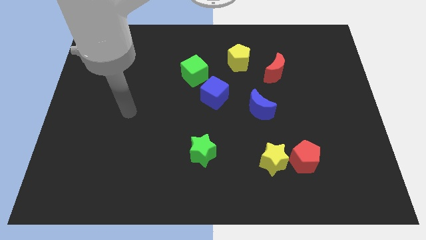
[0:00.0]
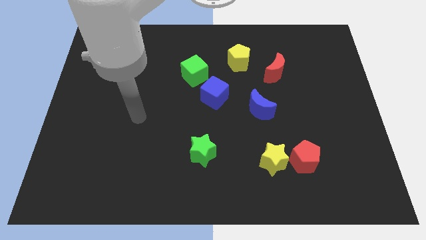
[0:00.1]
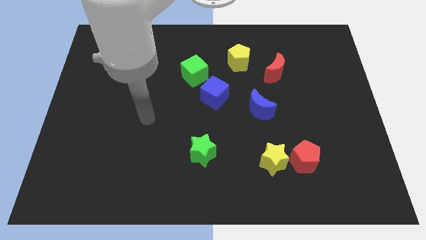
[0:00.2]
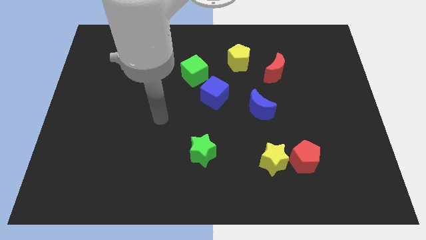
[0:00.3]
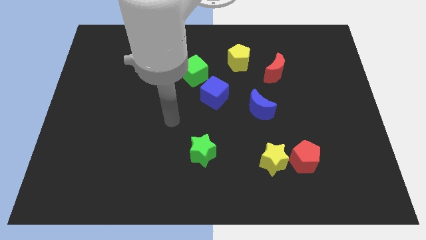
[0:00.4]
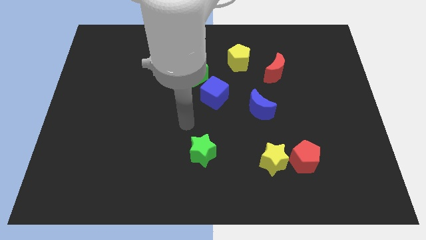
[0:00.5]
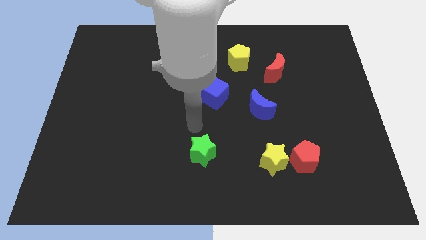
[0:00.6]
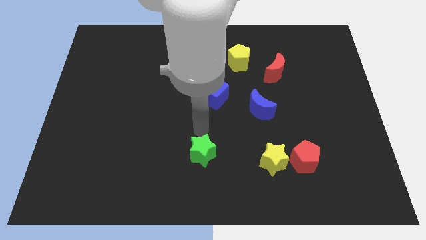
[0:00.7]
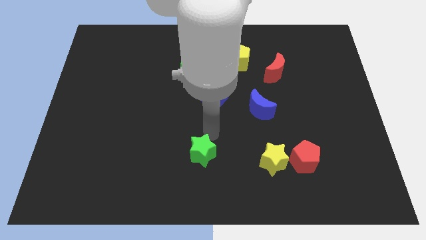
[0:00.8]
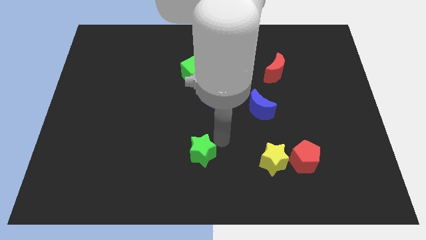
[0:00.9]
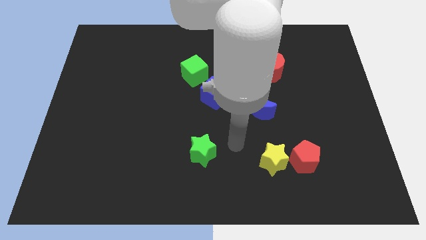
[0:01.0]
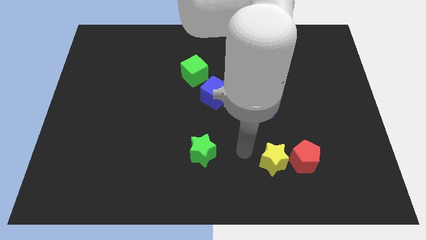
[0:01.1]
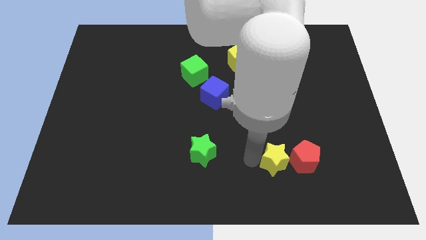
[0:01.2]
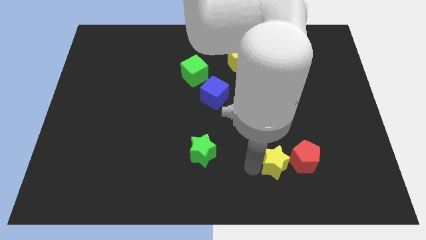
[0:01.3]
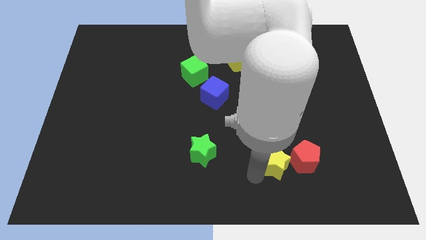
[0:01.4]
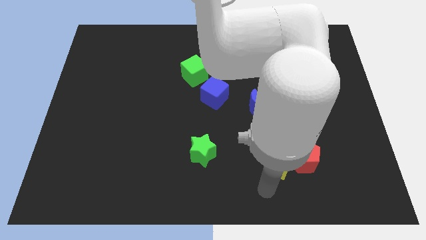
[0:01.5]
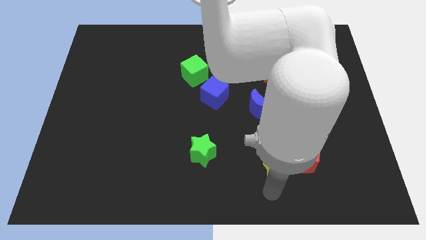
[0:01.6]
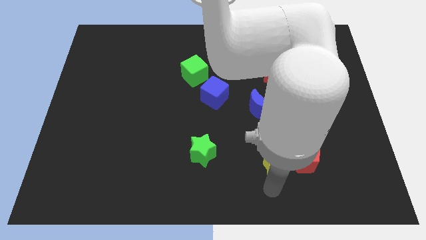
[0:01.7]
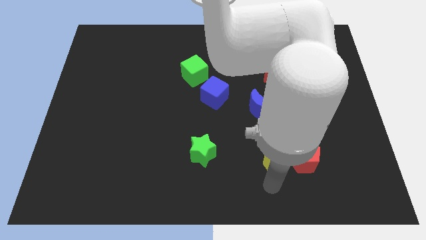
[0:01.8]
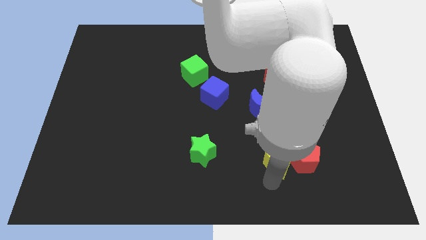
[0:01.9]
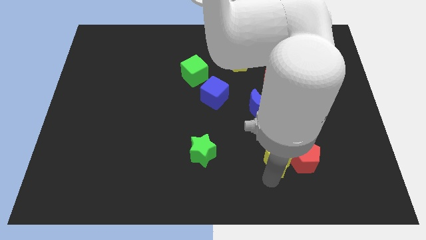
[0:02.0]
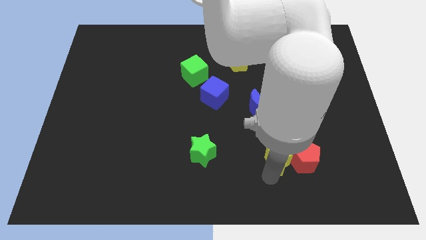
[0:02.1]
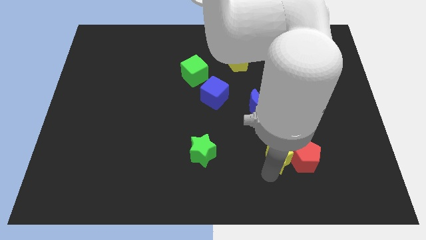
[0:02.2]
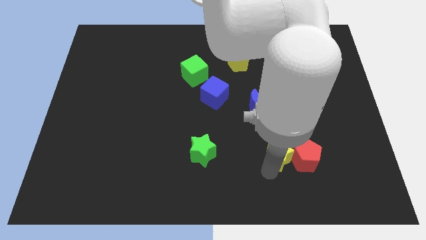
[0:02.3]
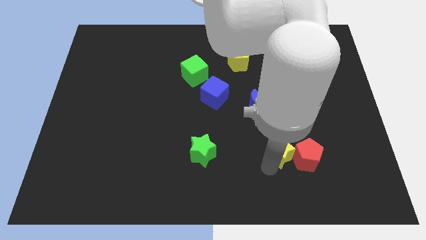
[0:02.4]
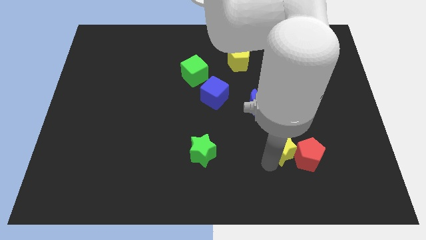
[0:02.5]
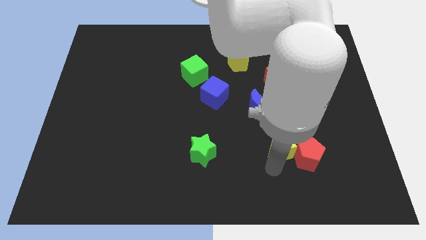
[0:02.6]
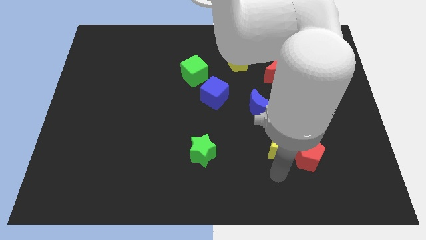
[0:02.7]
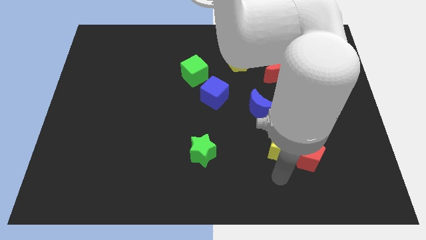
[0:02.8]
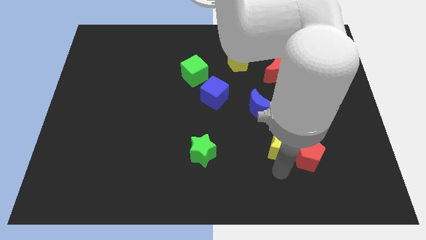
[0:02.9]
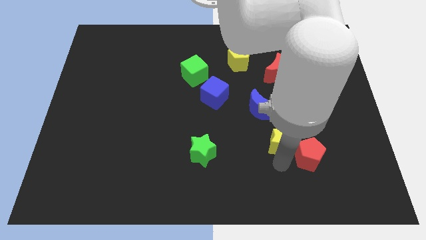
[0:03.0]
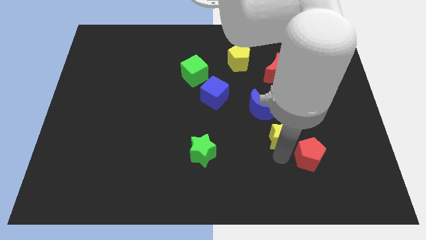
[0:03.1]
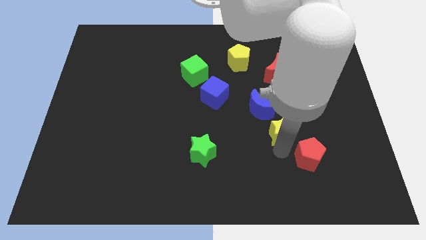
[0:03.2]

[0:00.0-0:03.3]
push the yellow star upwards slightly

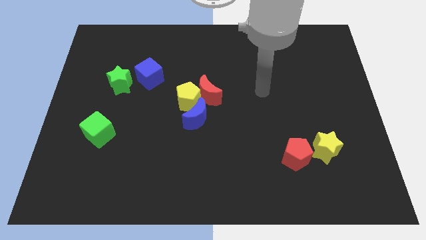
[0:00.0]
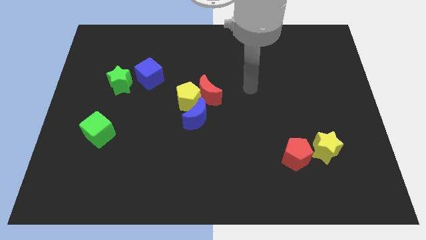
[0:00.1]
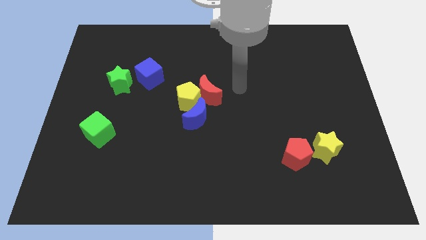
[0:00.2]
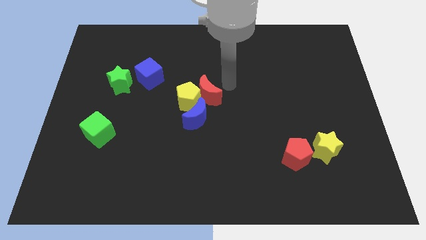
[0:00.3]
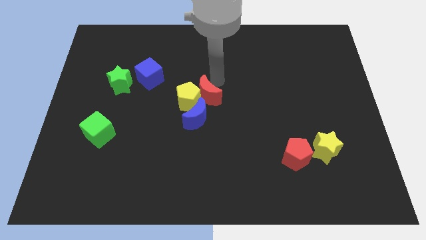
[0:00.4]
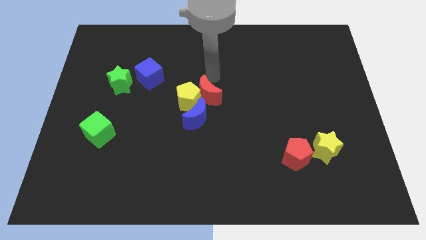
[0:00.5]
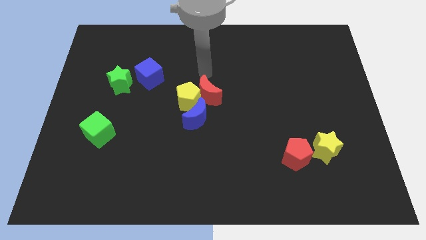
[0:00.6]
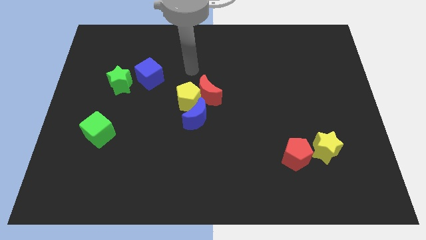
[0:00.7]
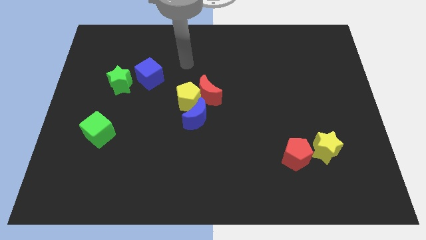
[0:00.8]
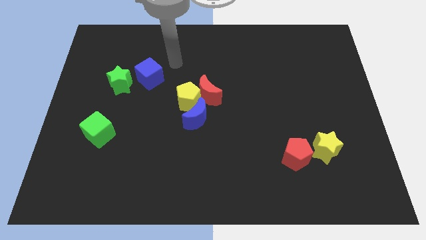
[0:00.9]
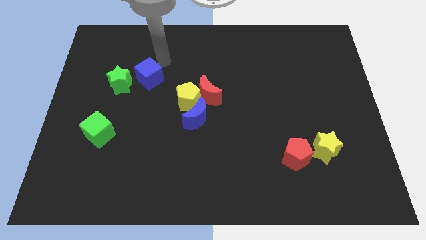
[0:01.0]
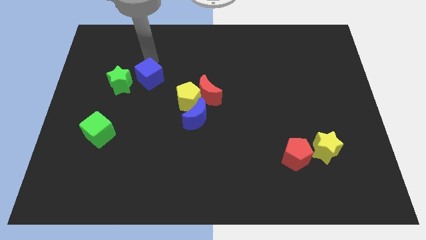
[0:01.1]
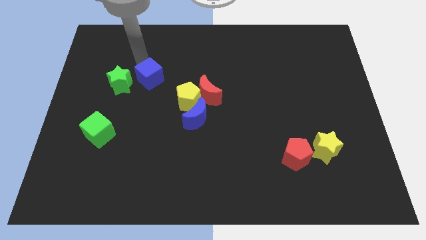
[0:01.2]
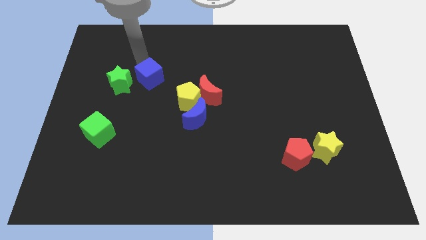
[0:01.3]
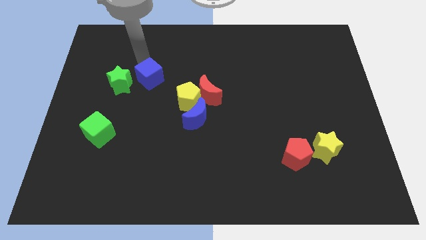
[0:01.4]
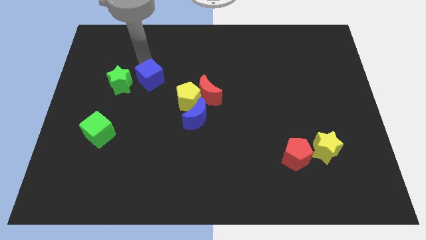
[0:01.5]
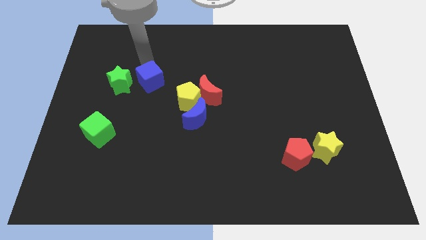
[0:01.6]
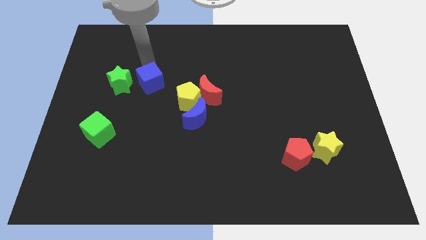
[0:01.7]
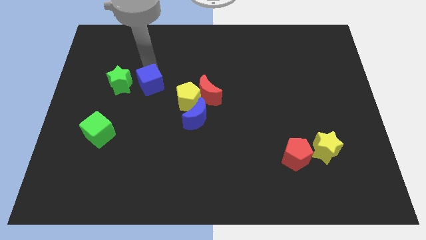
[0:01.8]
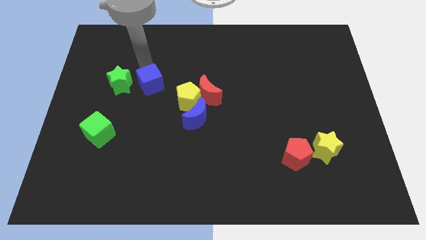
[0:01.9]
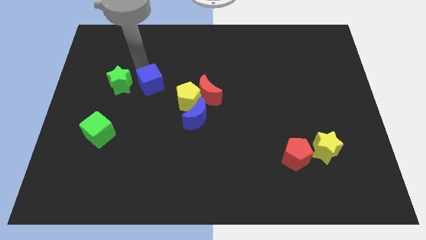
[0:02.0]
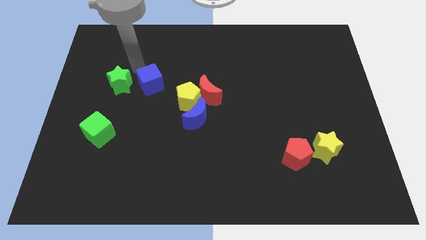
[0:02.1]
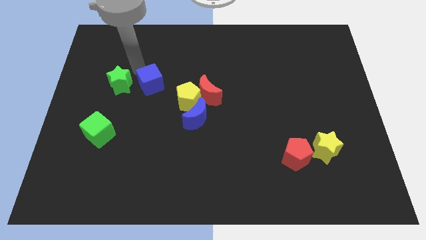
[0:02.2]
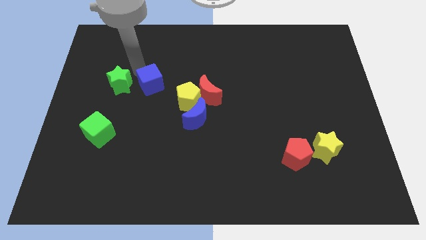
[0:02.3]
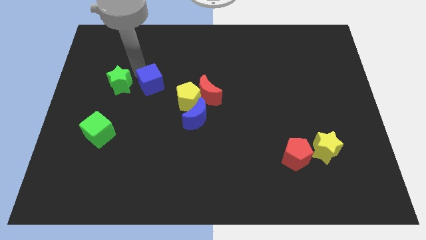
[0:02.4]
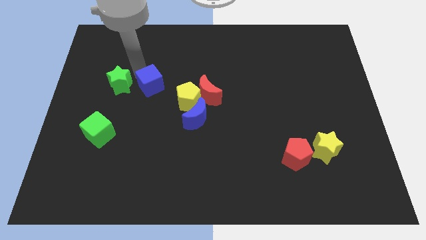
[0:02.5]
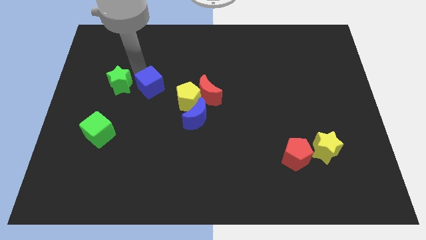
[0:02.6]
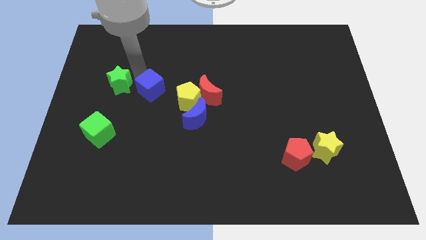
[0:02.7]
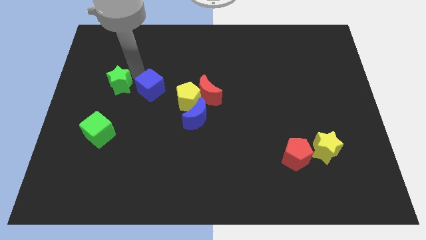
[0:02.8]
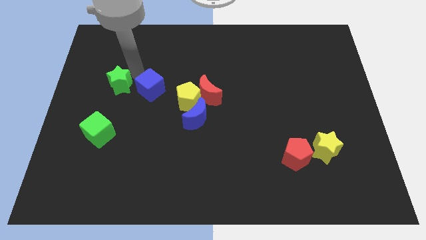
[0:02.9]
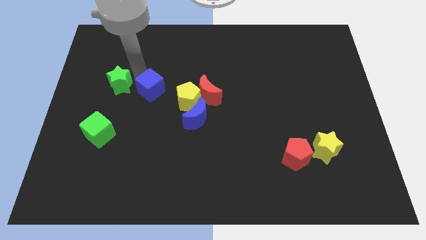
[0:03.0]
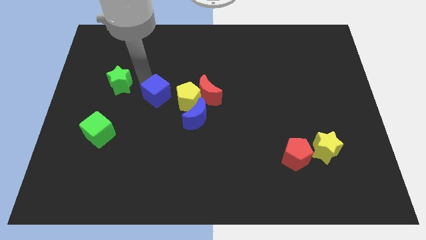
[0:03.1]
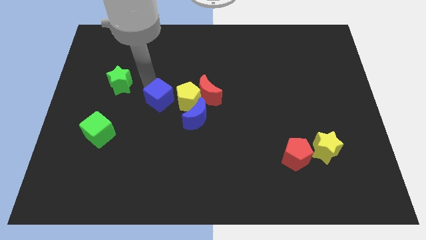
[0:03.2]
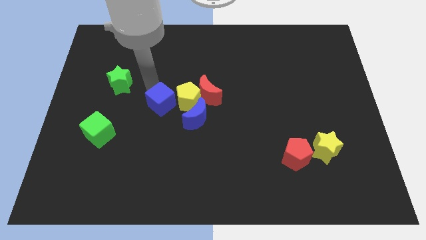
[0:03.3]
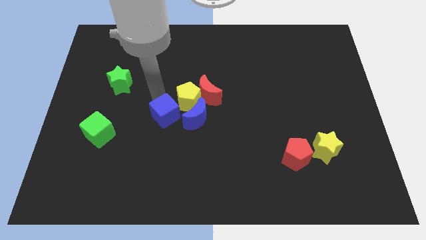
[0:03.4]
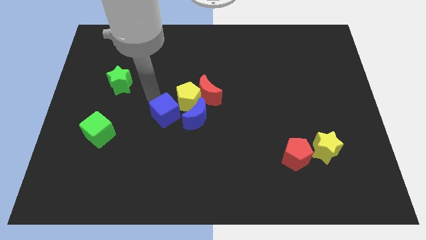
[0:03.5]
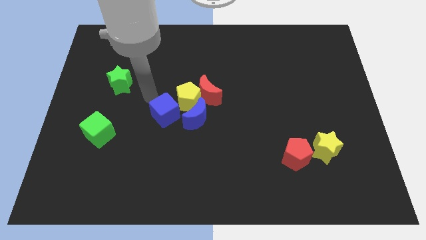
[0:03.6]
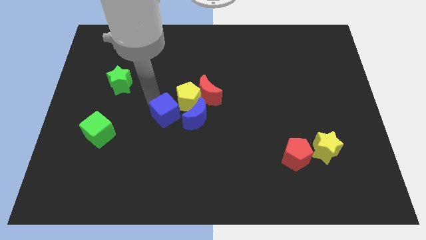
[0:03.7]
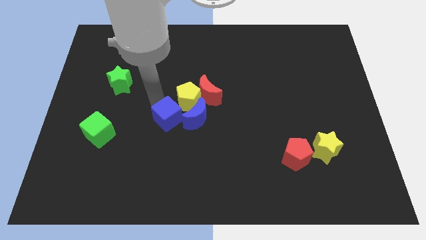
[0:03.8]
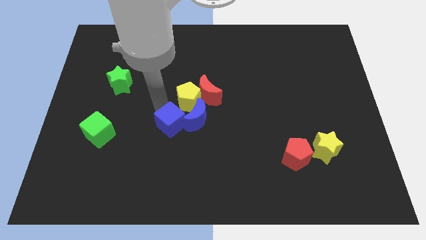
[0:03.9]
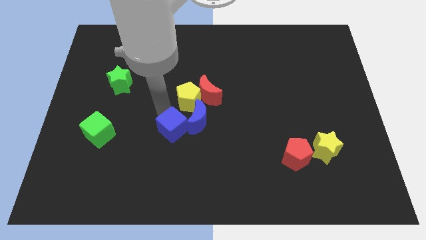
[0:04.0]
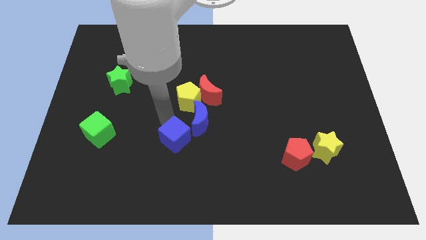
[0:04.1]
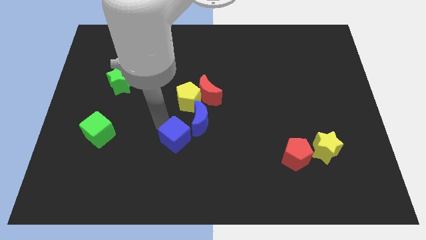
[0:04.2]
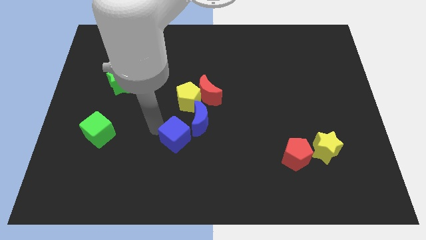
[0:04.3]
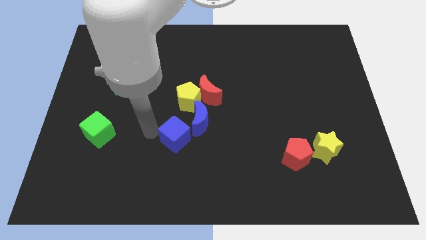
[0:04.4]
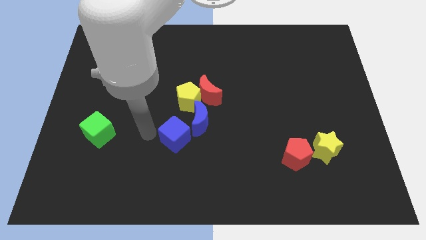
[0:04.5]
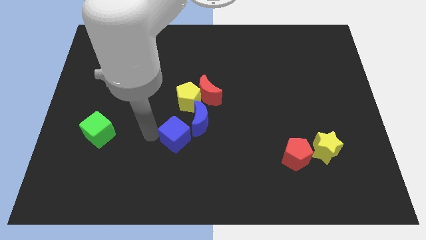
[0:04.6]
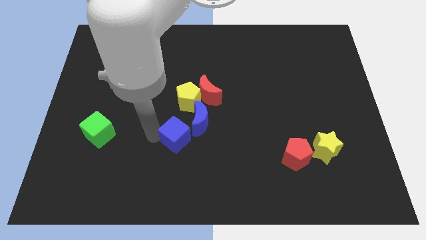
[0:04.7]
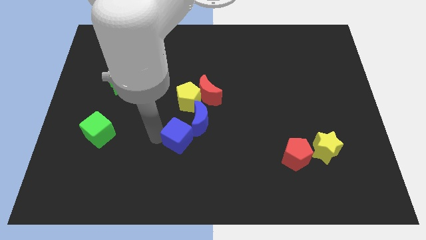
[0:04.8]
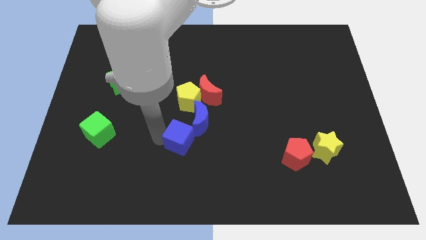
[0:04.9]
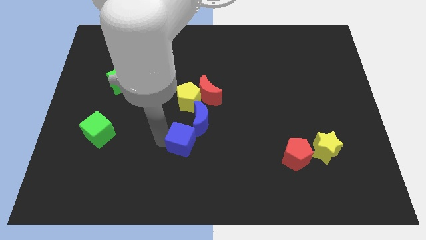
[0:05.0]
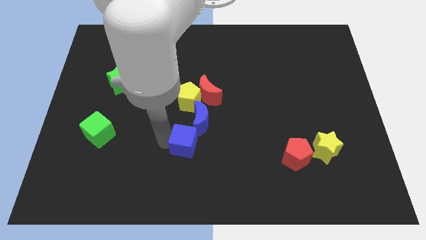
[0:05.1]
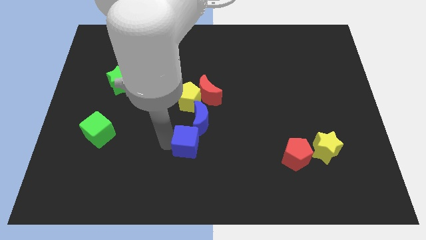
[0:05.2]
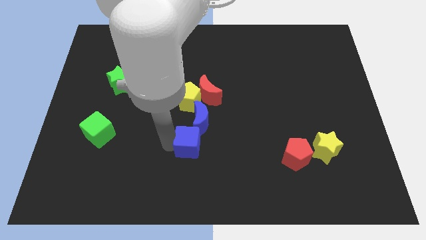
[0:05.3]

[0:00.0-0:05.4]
slide the blue cube downwards and to the right
